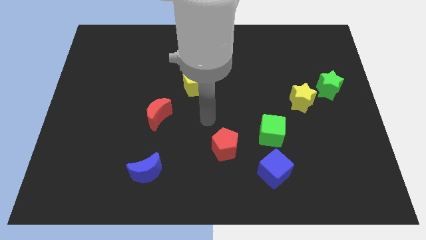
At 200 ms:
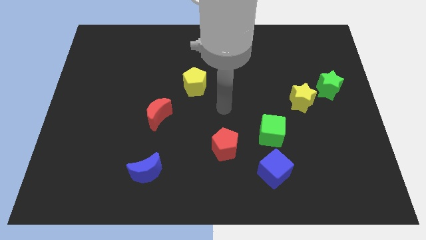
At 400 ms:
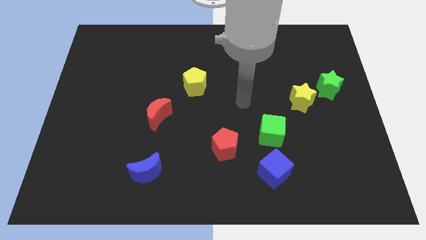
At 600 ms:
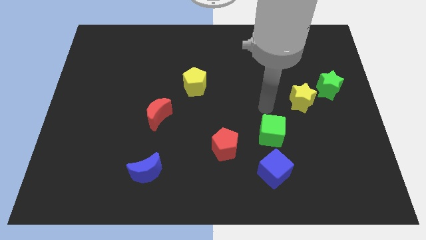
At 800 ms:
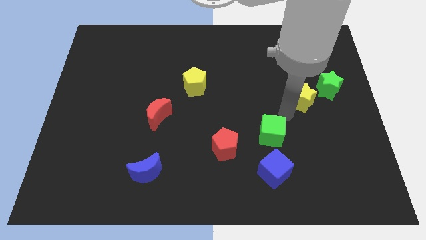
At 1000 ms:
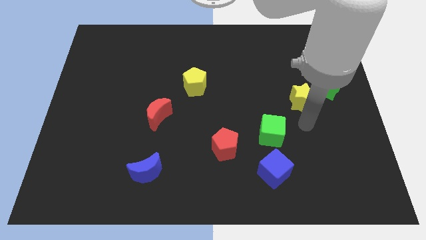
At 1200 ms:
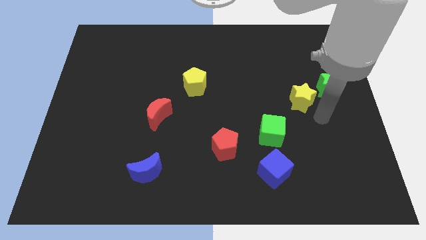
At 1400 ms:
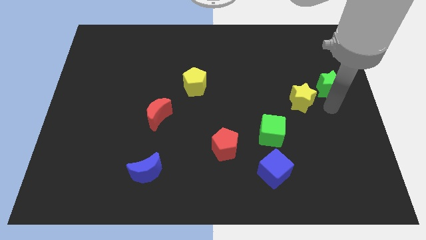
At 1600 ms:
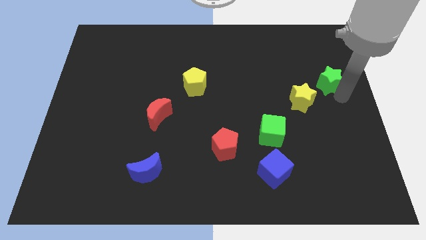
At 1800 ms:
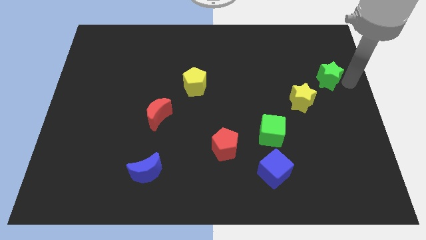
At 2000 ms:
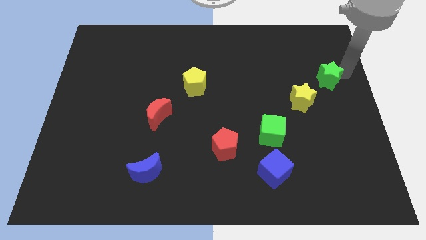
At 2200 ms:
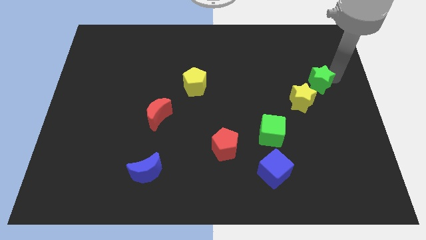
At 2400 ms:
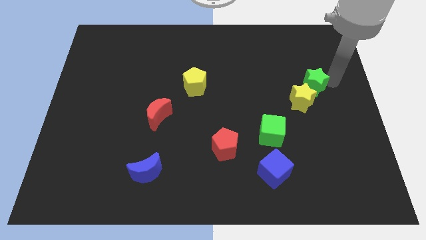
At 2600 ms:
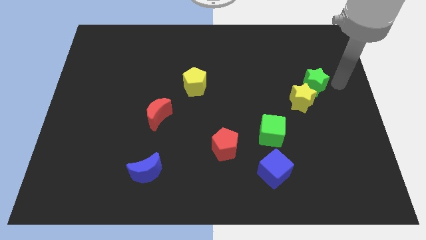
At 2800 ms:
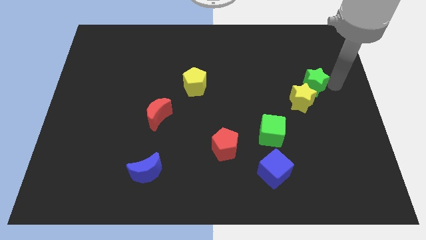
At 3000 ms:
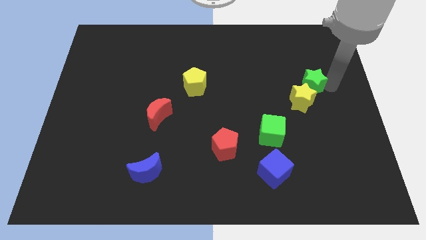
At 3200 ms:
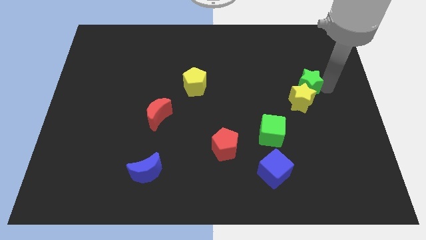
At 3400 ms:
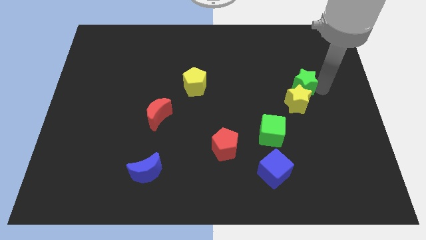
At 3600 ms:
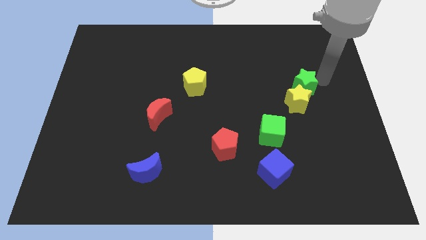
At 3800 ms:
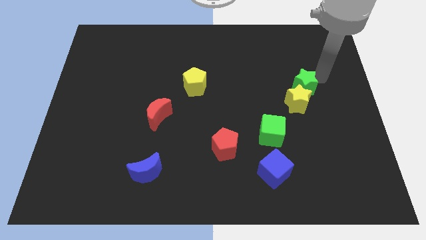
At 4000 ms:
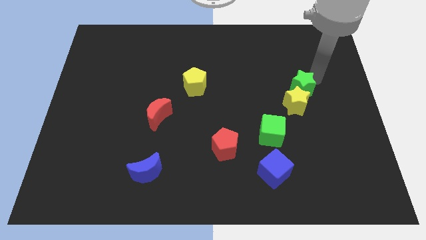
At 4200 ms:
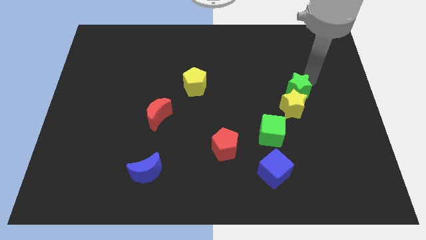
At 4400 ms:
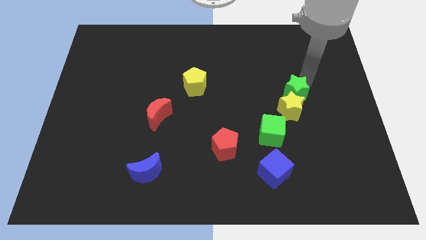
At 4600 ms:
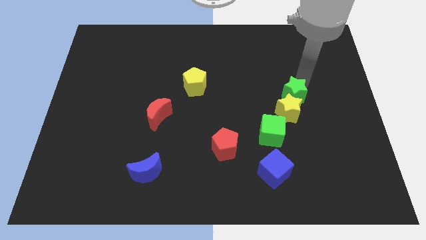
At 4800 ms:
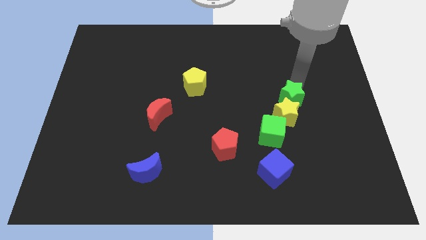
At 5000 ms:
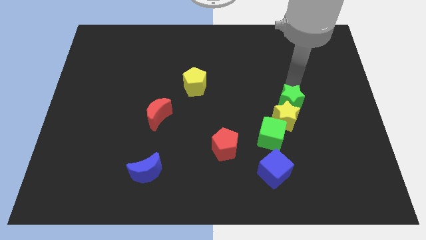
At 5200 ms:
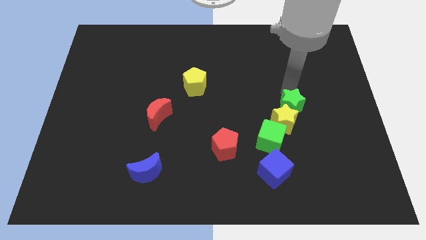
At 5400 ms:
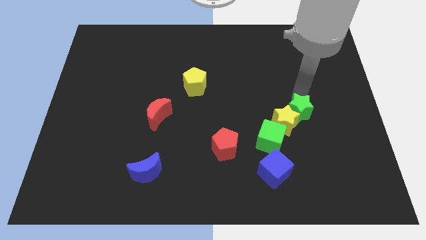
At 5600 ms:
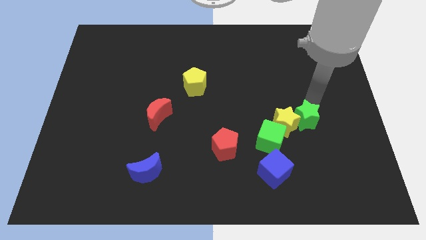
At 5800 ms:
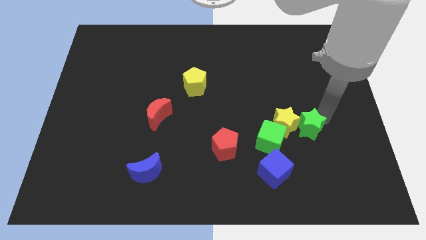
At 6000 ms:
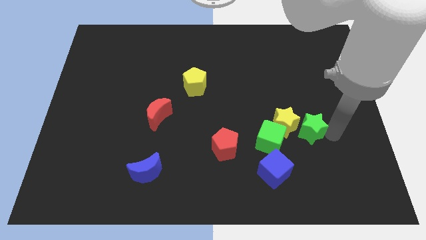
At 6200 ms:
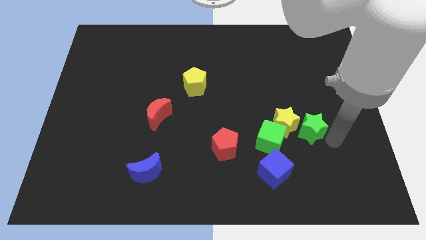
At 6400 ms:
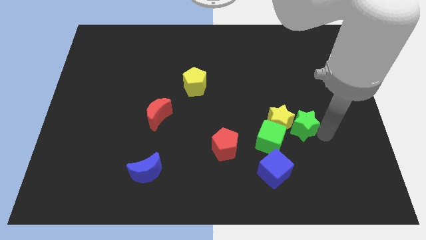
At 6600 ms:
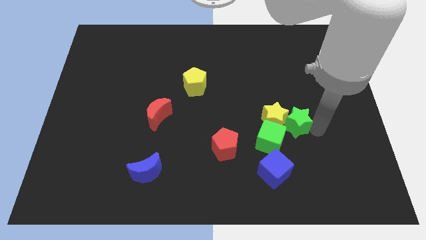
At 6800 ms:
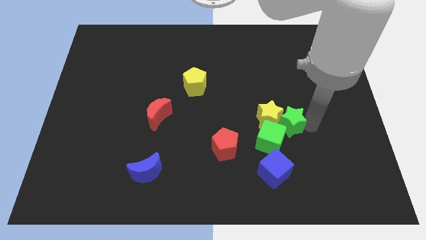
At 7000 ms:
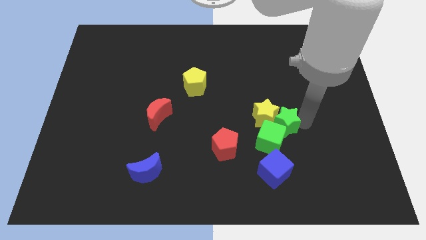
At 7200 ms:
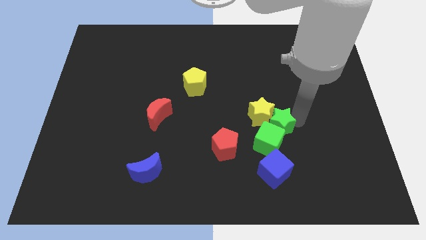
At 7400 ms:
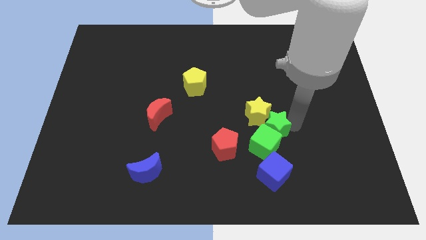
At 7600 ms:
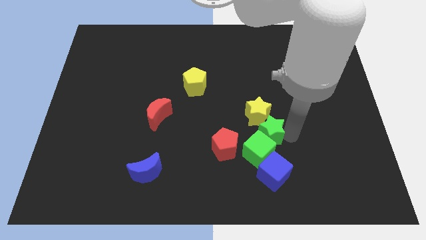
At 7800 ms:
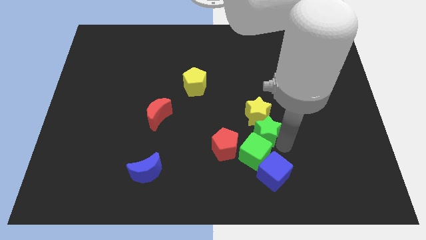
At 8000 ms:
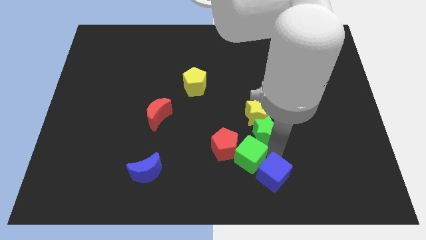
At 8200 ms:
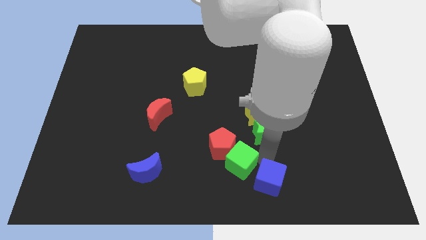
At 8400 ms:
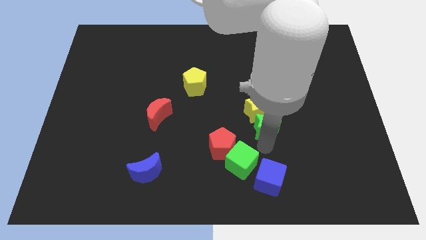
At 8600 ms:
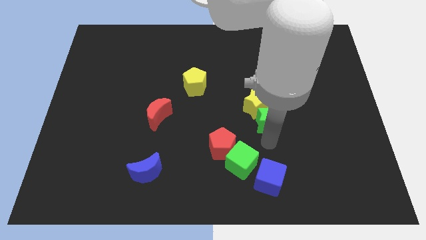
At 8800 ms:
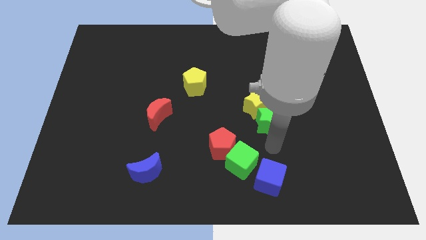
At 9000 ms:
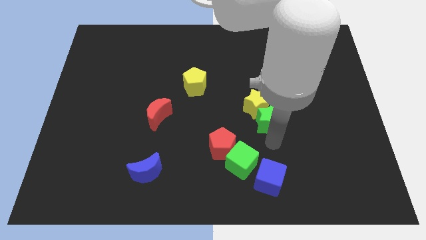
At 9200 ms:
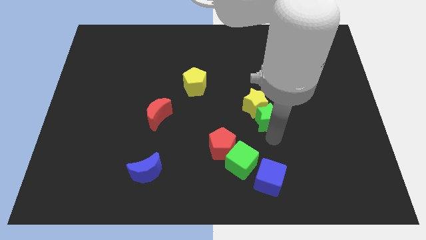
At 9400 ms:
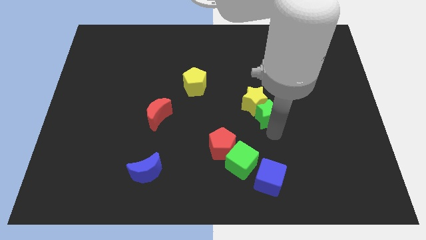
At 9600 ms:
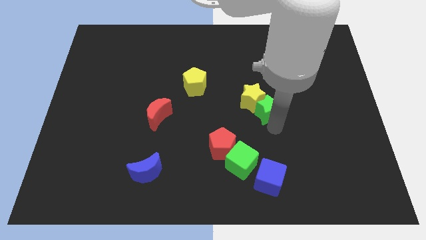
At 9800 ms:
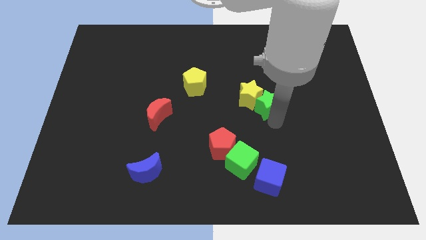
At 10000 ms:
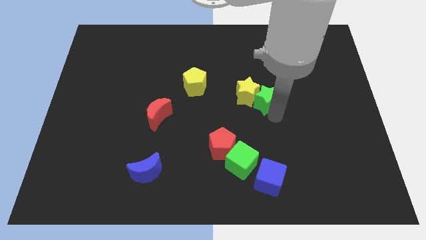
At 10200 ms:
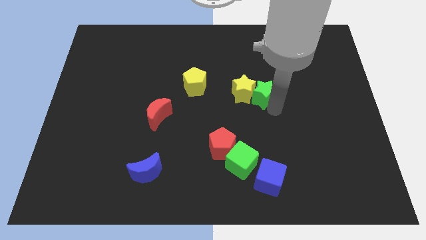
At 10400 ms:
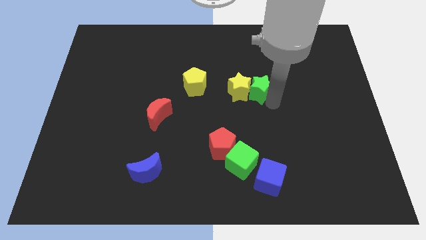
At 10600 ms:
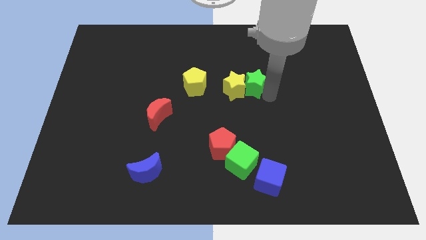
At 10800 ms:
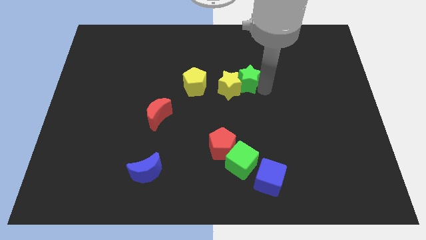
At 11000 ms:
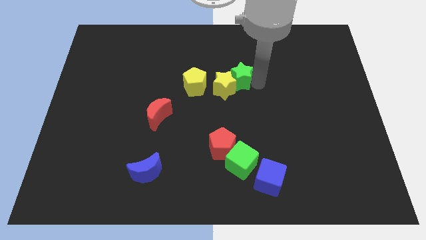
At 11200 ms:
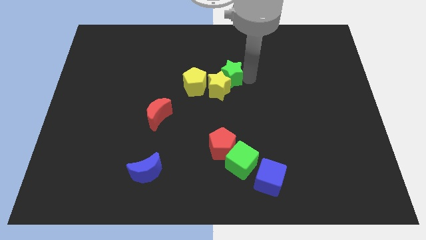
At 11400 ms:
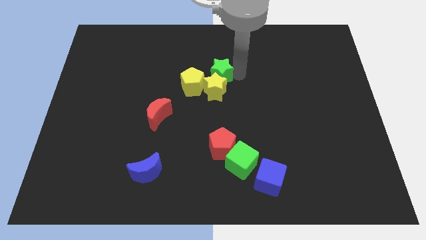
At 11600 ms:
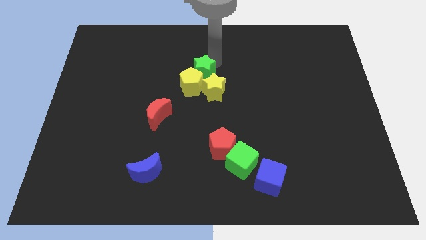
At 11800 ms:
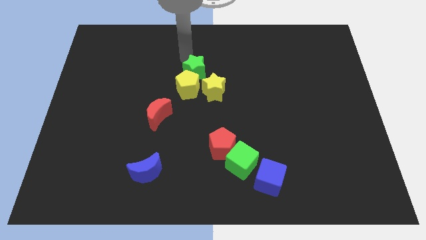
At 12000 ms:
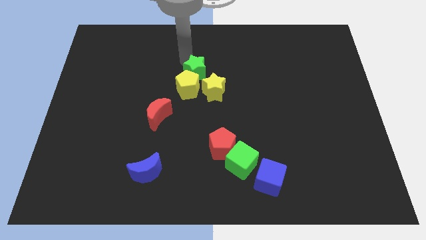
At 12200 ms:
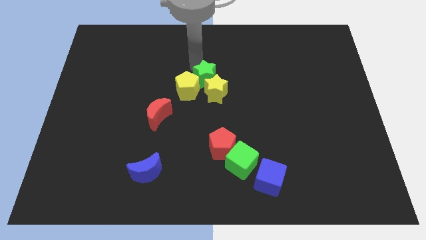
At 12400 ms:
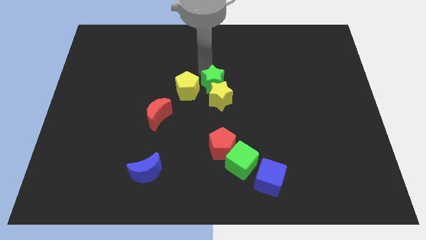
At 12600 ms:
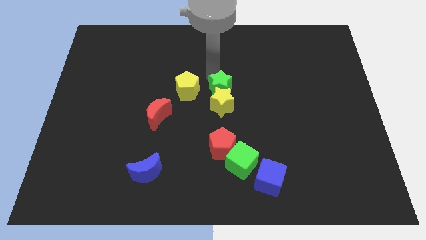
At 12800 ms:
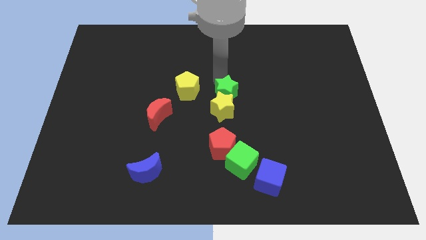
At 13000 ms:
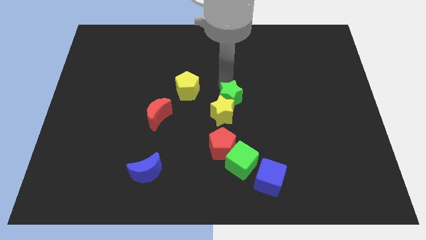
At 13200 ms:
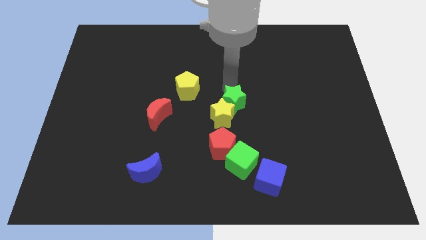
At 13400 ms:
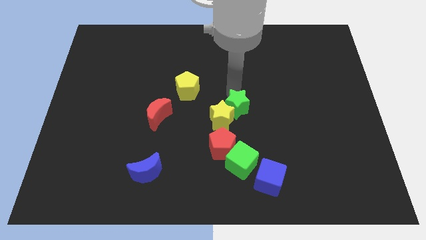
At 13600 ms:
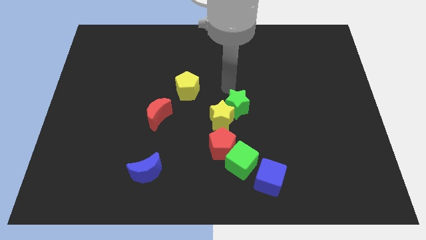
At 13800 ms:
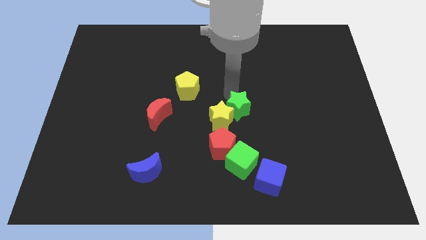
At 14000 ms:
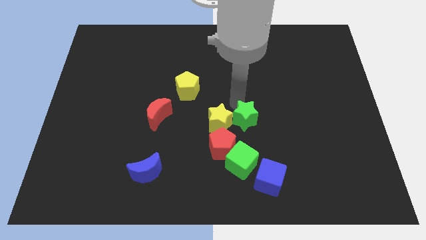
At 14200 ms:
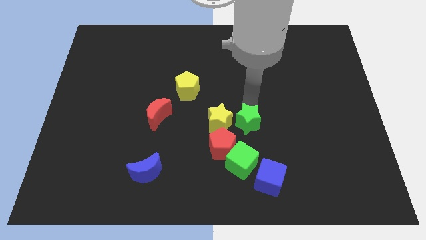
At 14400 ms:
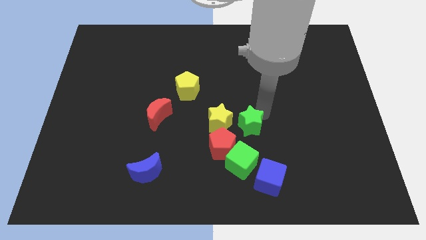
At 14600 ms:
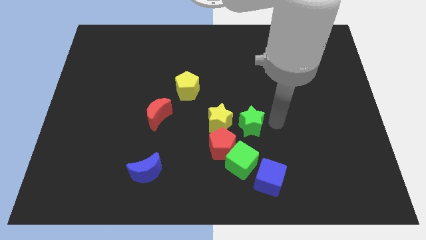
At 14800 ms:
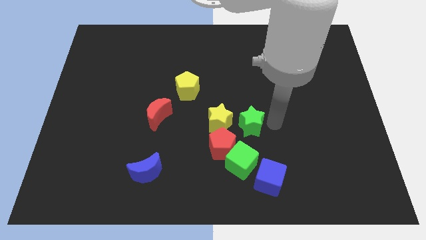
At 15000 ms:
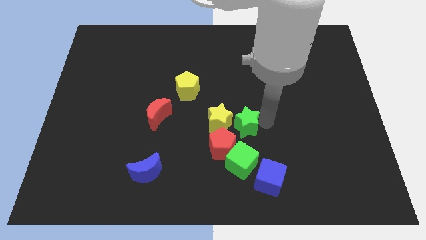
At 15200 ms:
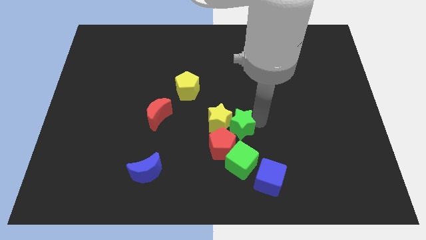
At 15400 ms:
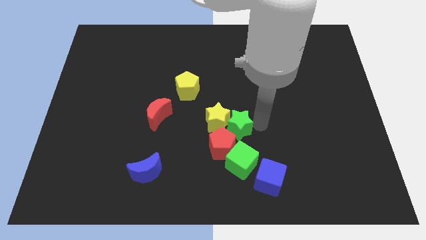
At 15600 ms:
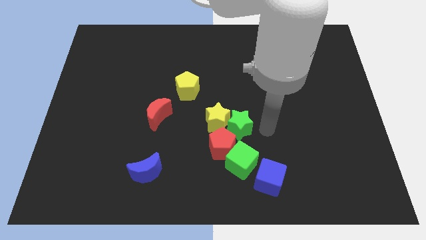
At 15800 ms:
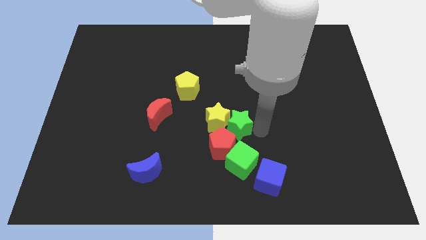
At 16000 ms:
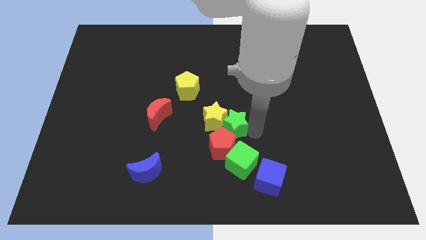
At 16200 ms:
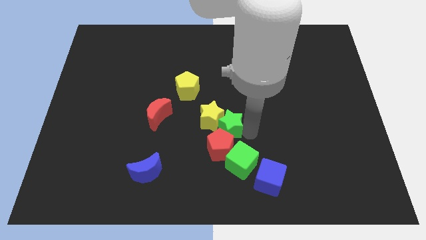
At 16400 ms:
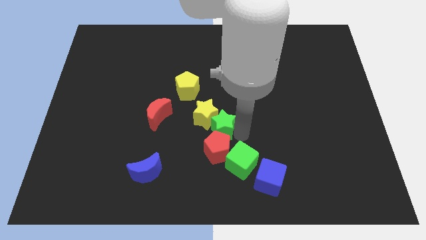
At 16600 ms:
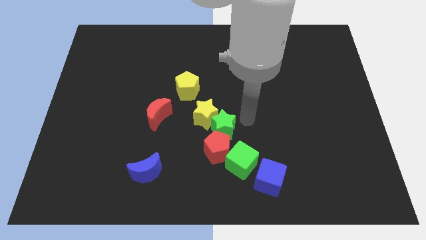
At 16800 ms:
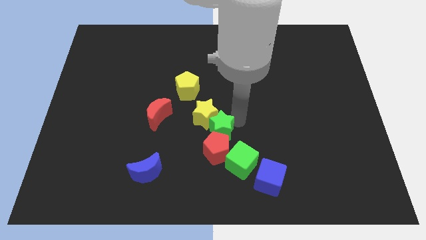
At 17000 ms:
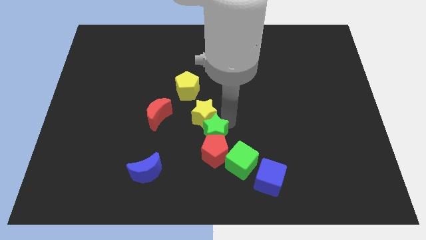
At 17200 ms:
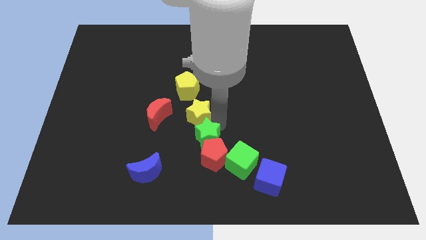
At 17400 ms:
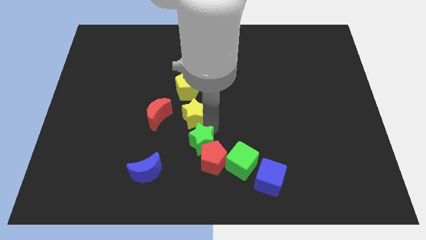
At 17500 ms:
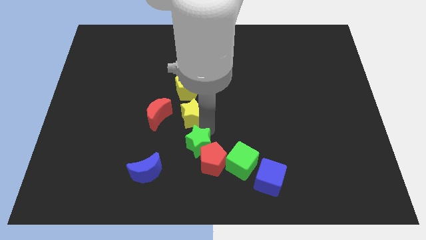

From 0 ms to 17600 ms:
slide the green star left of the red pentagon
